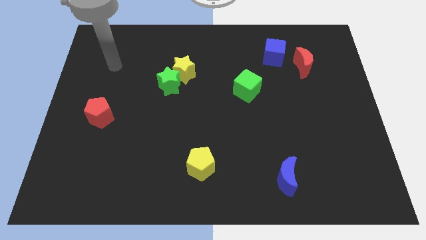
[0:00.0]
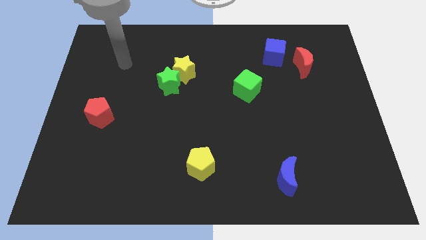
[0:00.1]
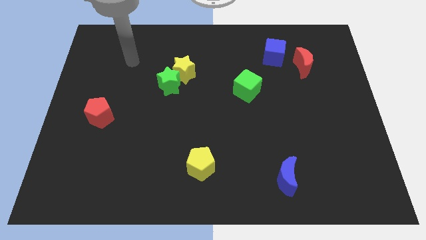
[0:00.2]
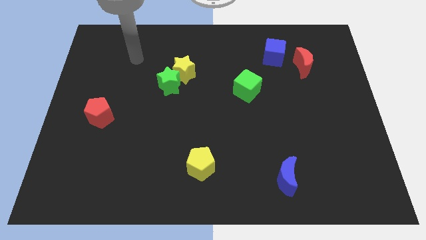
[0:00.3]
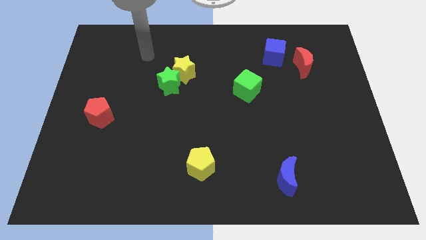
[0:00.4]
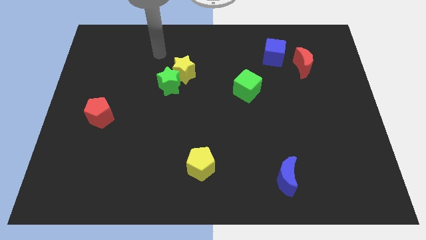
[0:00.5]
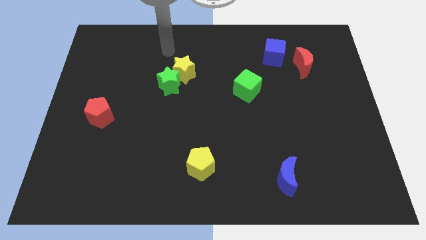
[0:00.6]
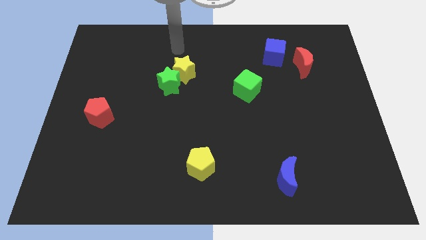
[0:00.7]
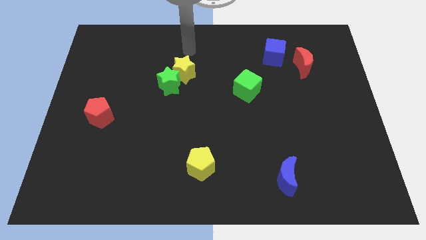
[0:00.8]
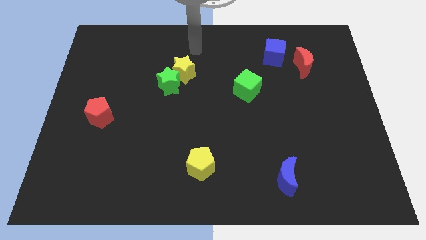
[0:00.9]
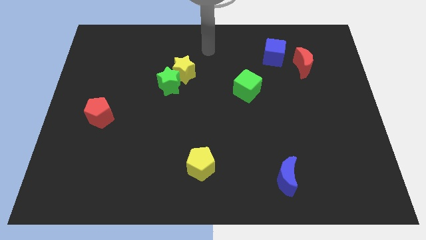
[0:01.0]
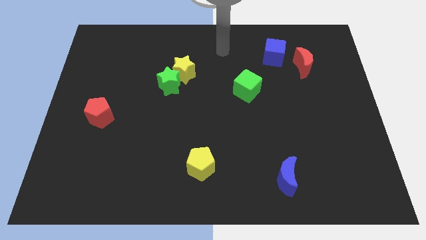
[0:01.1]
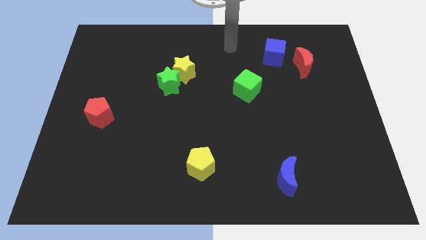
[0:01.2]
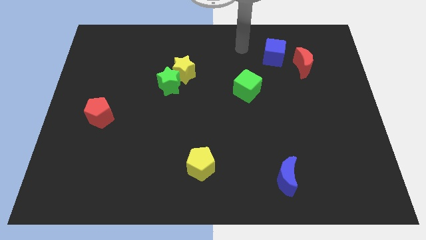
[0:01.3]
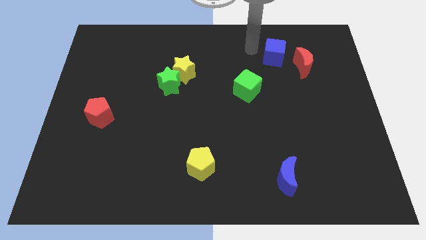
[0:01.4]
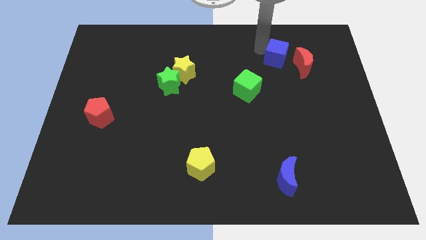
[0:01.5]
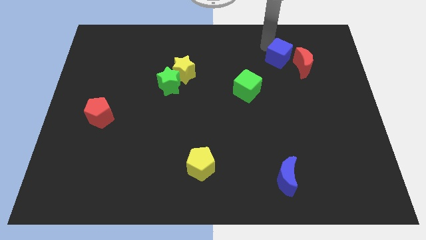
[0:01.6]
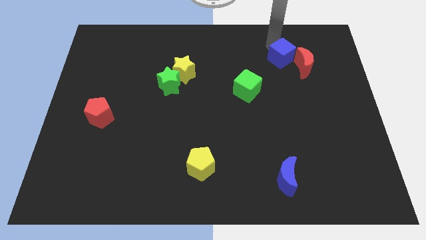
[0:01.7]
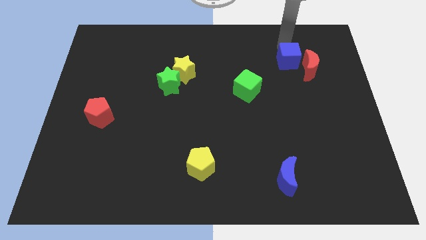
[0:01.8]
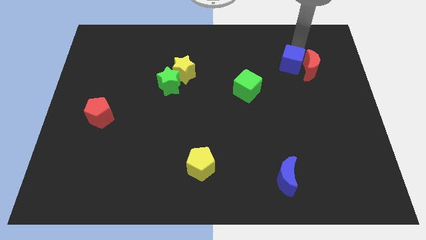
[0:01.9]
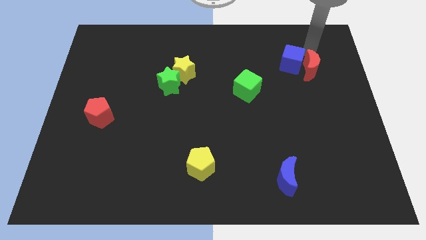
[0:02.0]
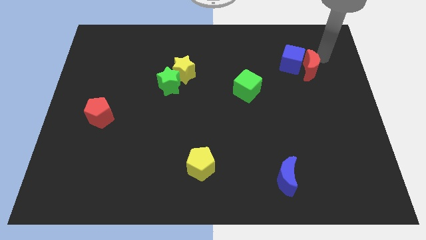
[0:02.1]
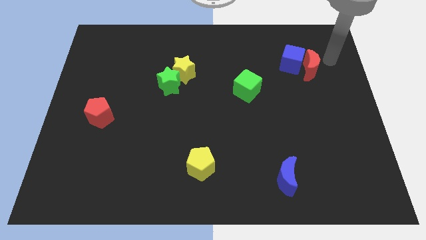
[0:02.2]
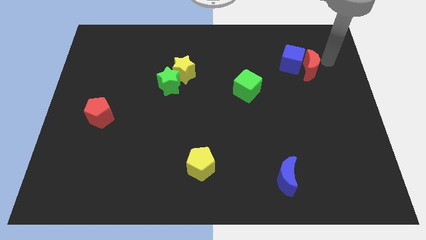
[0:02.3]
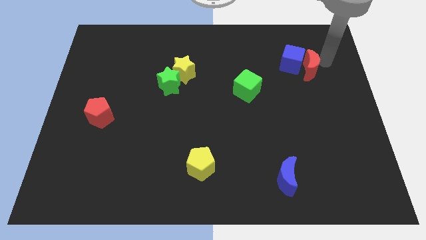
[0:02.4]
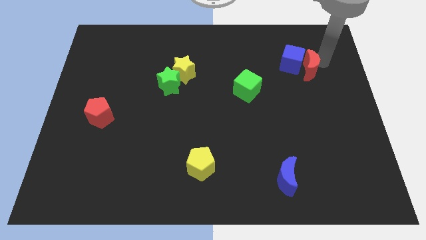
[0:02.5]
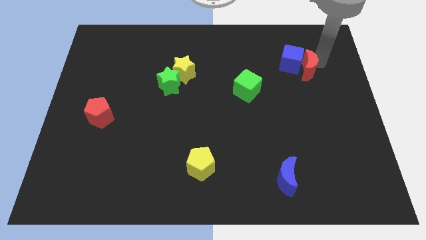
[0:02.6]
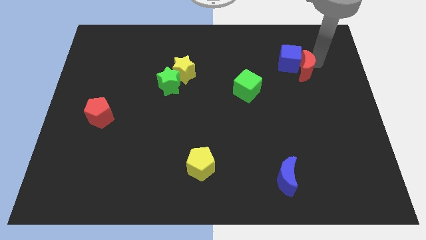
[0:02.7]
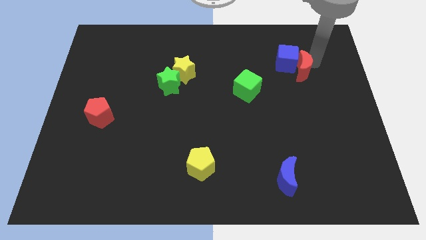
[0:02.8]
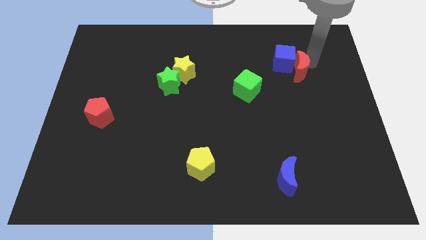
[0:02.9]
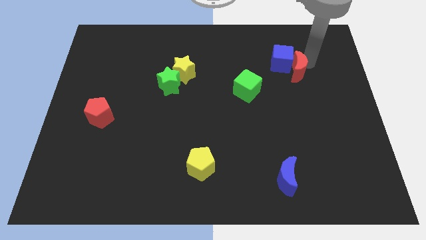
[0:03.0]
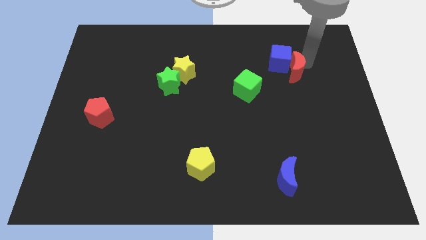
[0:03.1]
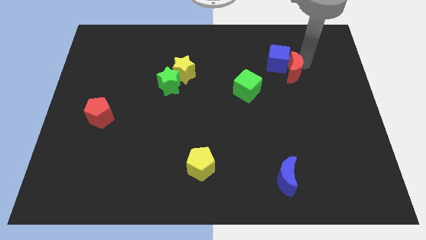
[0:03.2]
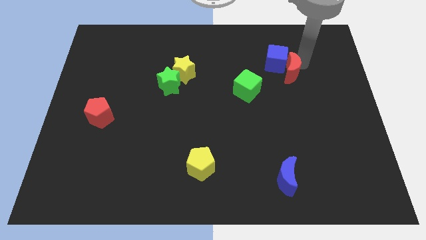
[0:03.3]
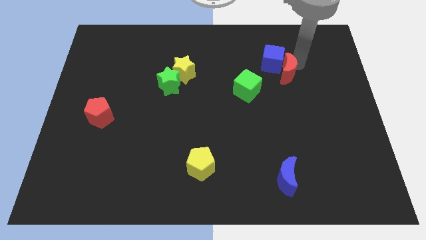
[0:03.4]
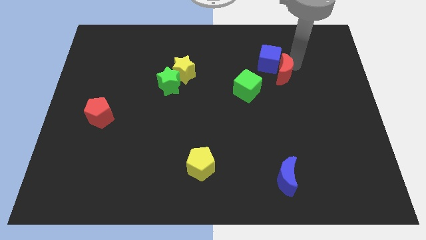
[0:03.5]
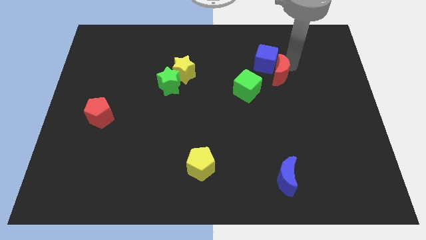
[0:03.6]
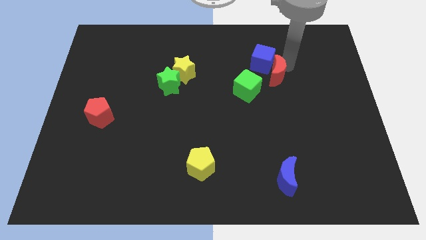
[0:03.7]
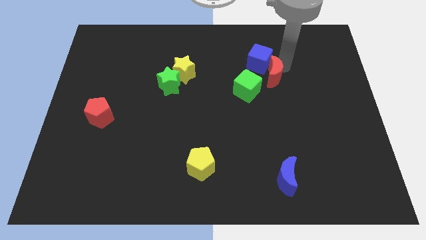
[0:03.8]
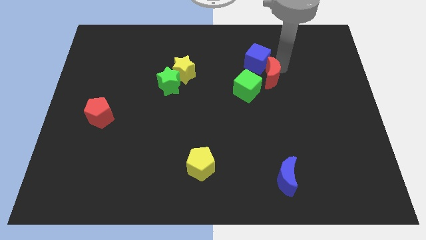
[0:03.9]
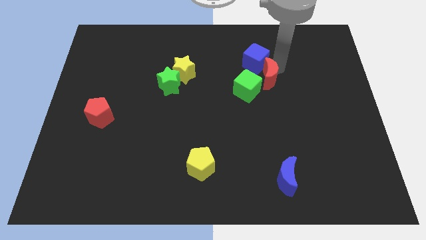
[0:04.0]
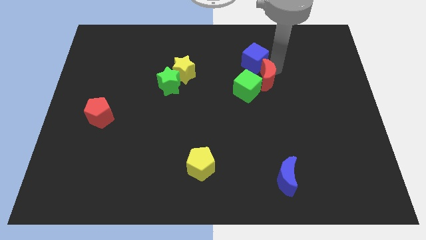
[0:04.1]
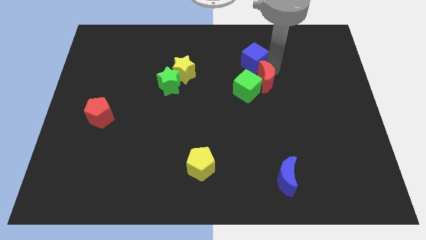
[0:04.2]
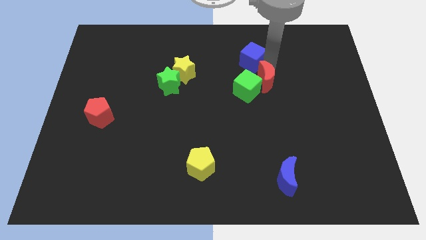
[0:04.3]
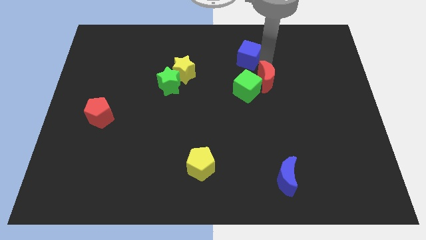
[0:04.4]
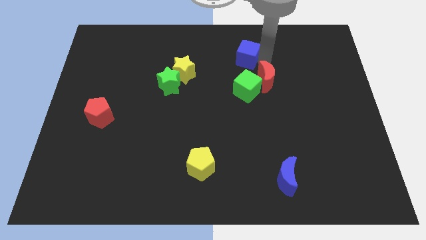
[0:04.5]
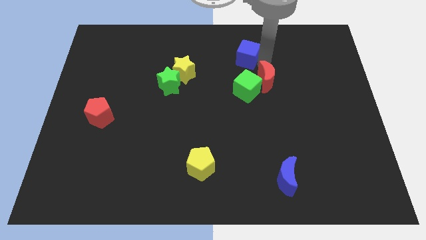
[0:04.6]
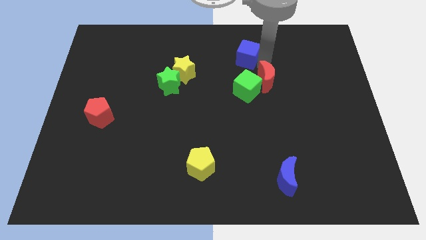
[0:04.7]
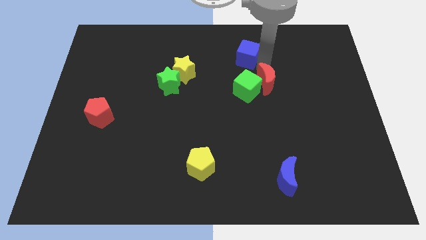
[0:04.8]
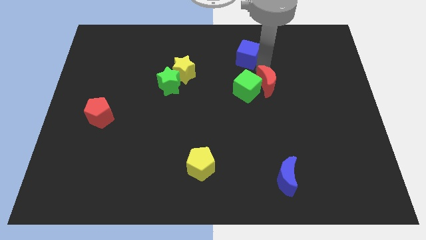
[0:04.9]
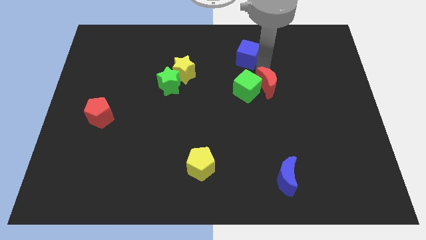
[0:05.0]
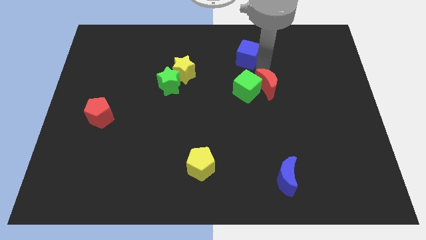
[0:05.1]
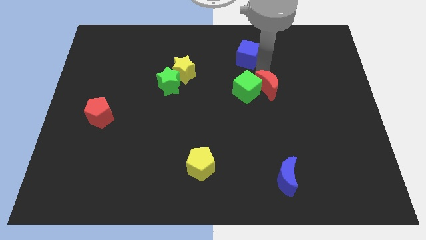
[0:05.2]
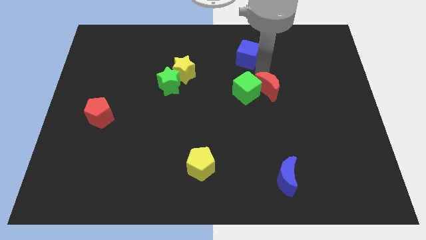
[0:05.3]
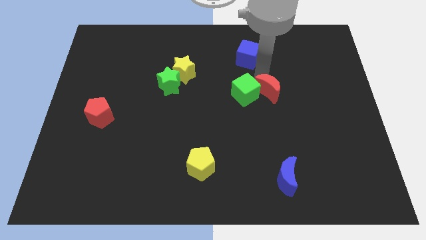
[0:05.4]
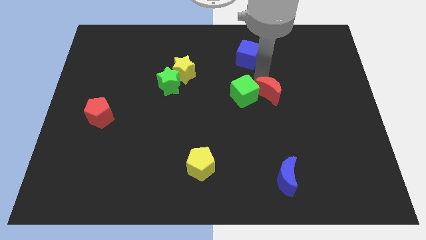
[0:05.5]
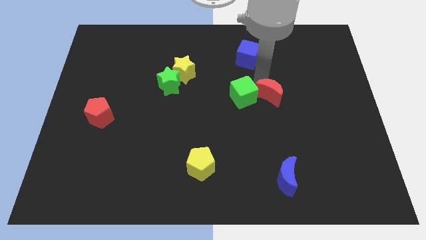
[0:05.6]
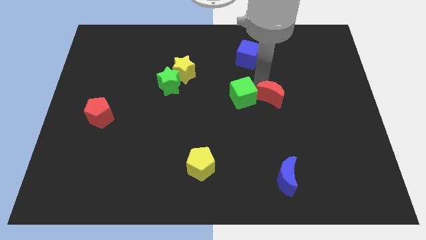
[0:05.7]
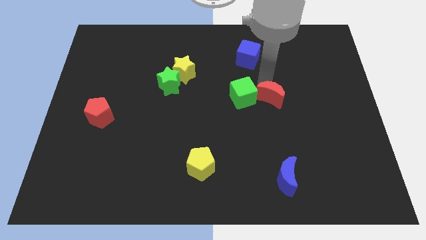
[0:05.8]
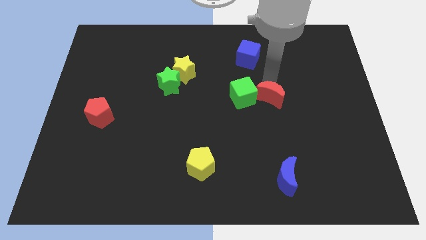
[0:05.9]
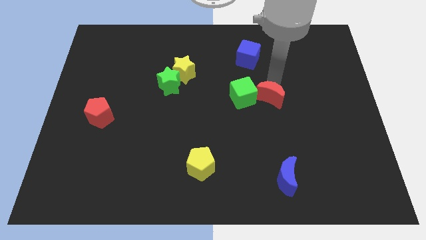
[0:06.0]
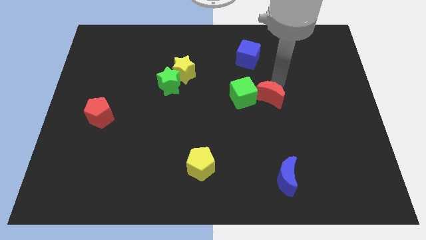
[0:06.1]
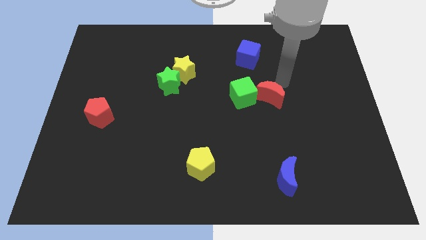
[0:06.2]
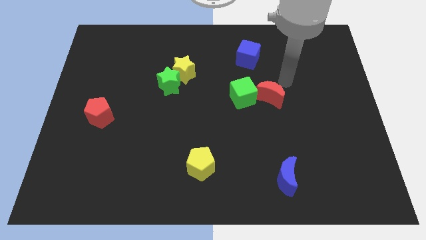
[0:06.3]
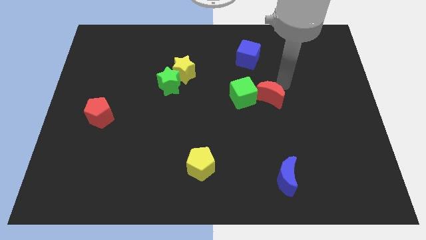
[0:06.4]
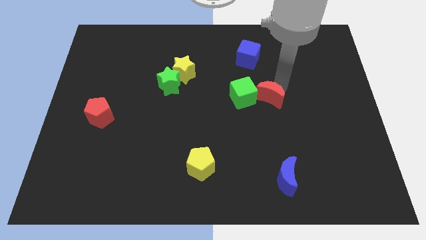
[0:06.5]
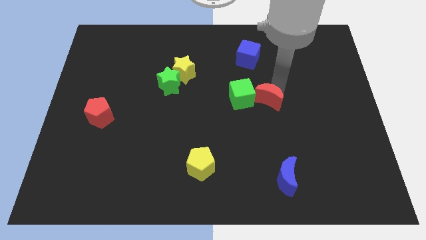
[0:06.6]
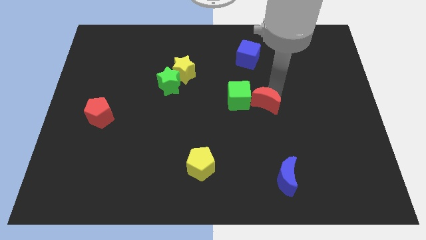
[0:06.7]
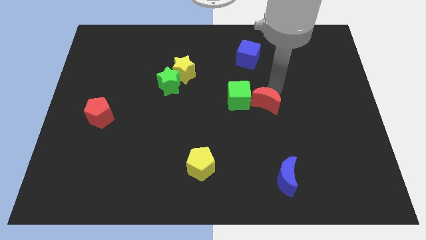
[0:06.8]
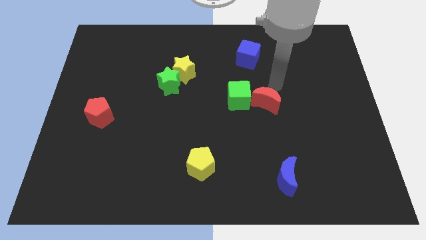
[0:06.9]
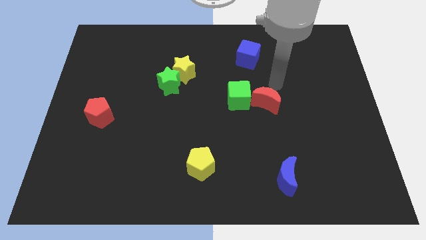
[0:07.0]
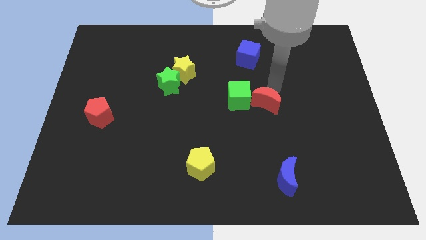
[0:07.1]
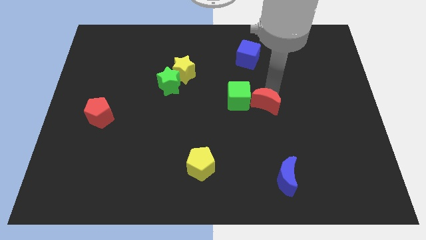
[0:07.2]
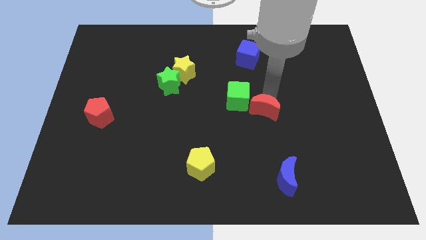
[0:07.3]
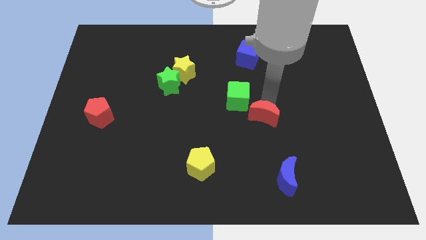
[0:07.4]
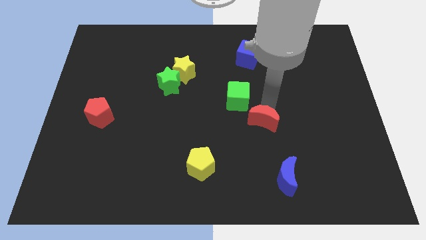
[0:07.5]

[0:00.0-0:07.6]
move the red moon diagonally down and left

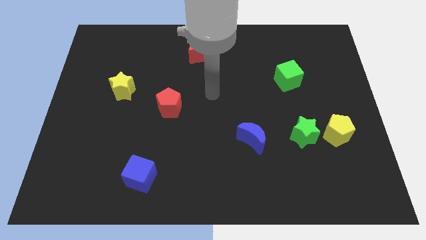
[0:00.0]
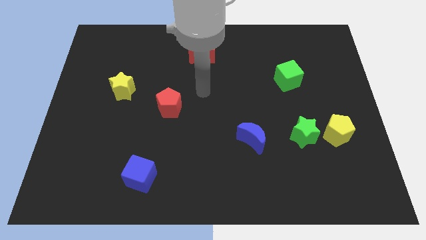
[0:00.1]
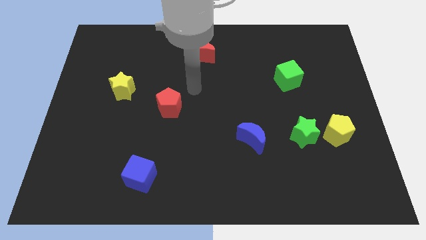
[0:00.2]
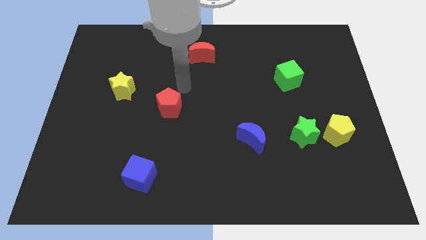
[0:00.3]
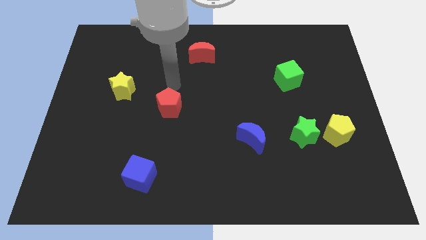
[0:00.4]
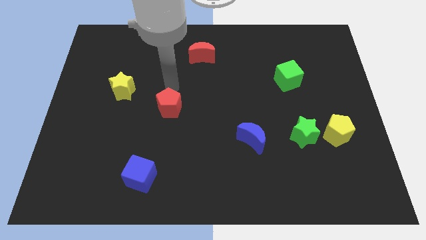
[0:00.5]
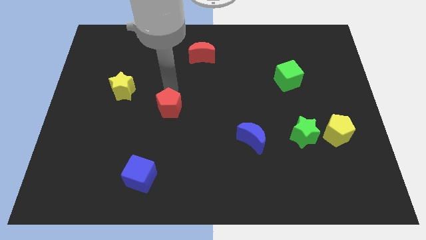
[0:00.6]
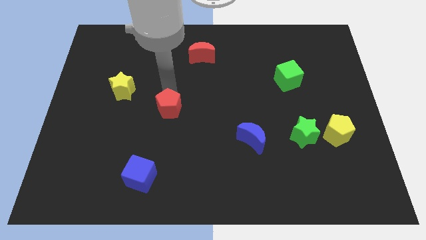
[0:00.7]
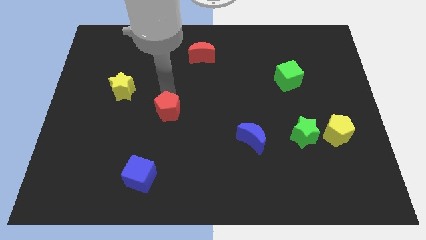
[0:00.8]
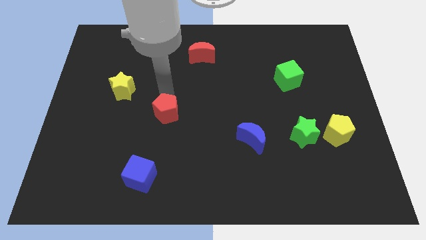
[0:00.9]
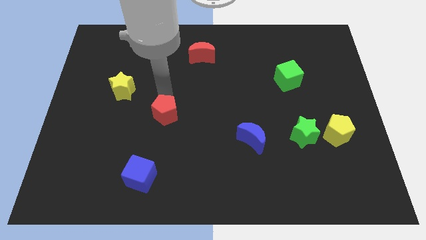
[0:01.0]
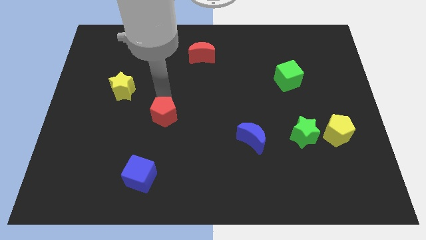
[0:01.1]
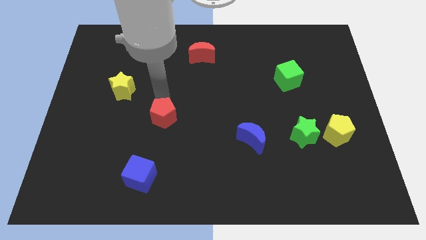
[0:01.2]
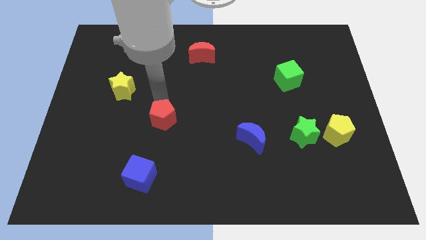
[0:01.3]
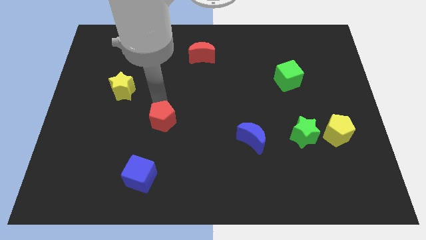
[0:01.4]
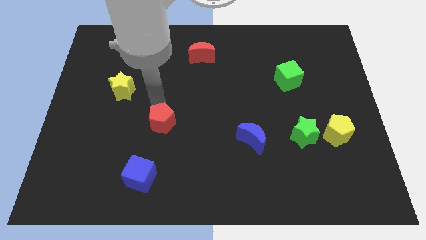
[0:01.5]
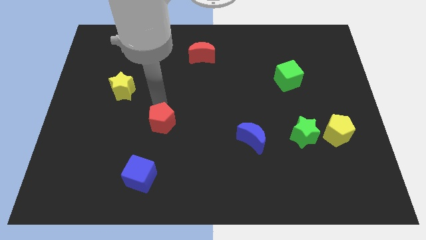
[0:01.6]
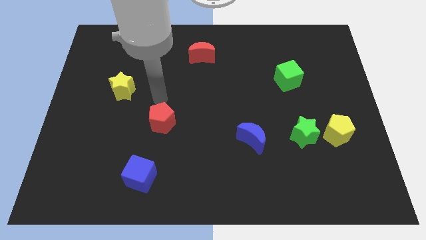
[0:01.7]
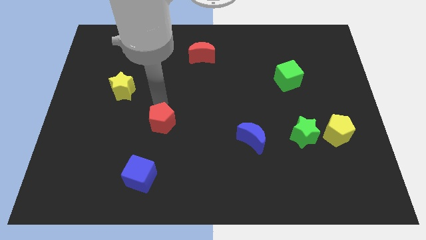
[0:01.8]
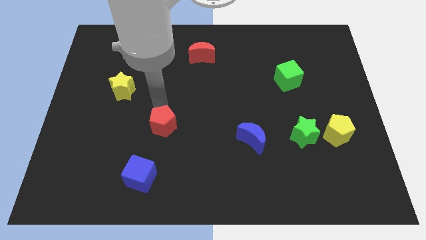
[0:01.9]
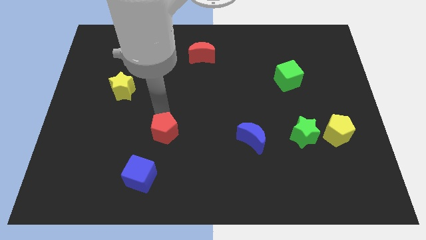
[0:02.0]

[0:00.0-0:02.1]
slide the red pentagon downwards a little
